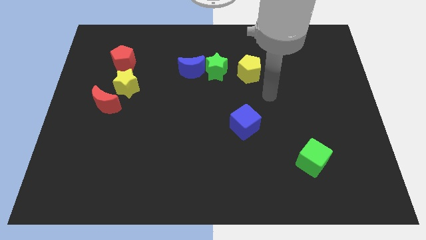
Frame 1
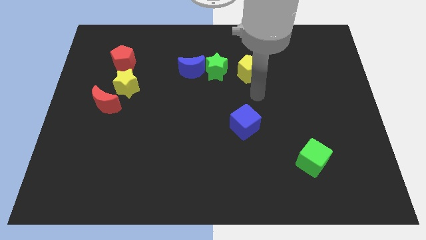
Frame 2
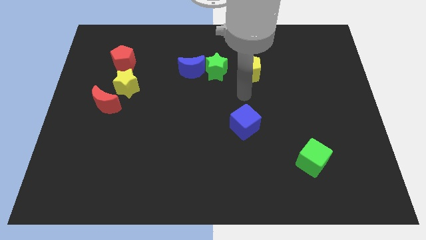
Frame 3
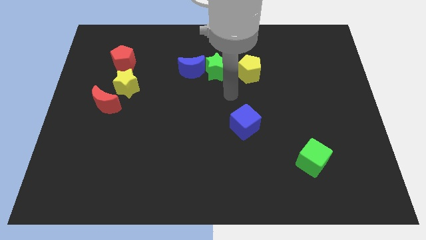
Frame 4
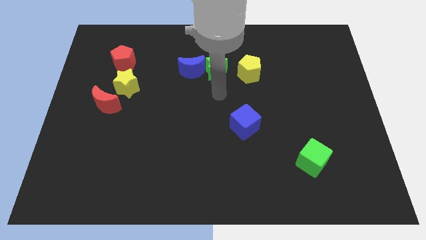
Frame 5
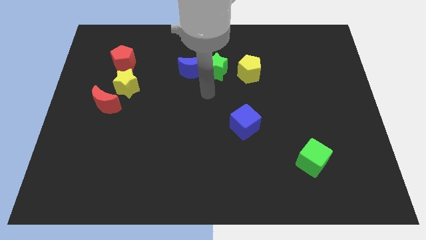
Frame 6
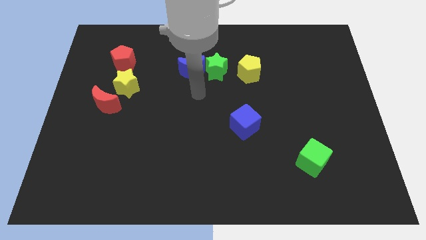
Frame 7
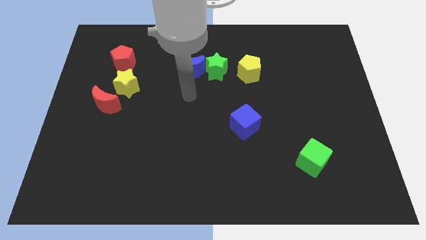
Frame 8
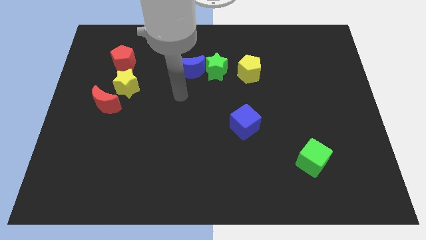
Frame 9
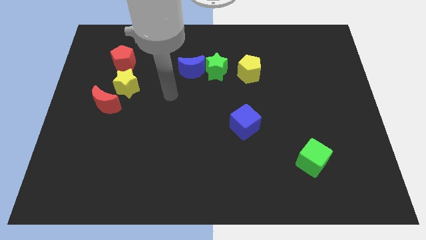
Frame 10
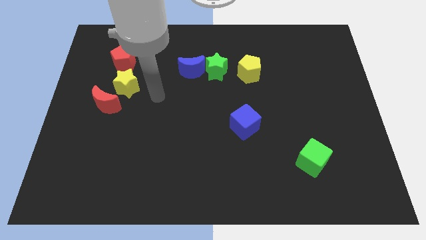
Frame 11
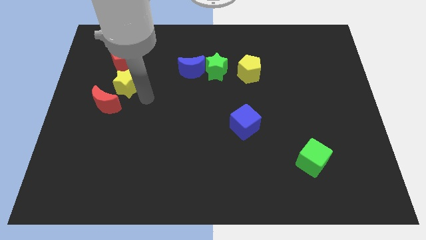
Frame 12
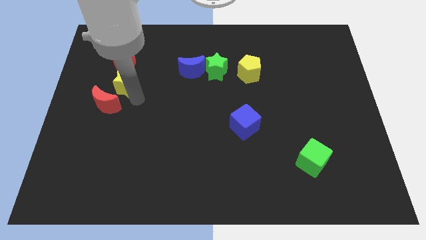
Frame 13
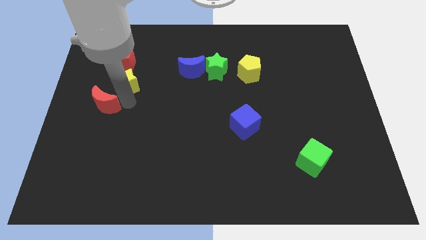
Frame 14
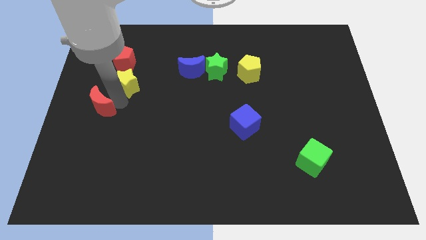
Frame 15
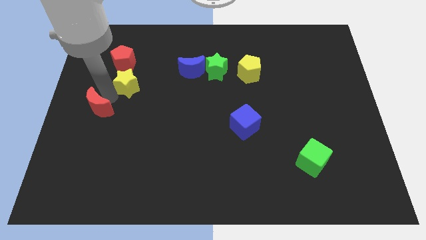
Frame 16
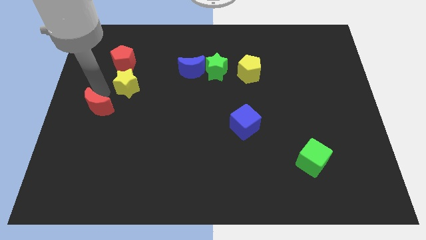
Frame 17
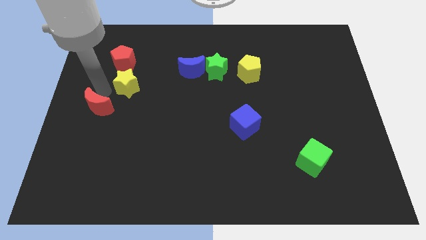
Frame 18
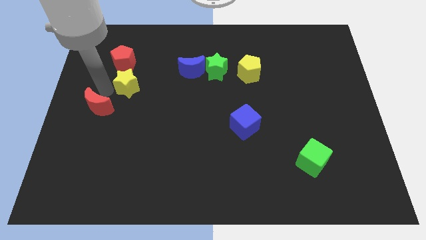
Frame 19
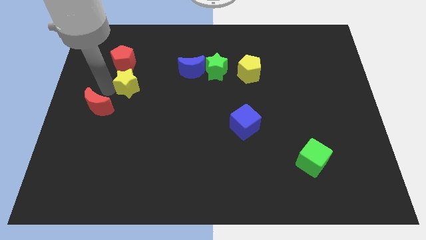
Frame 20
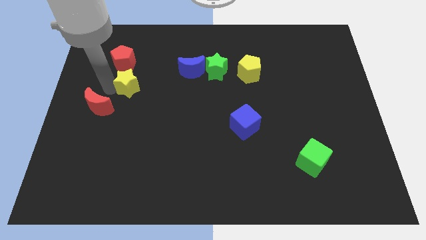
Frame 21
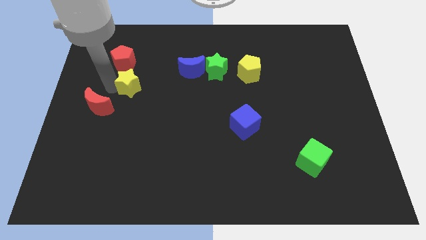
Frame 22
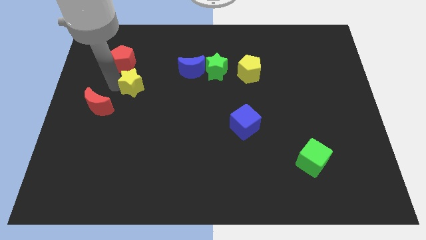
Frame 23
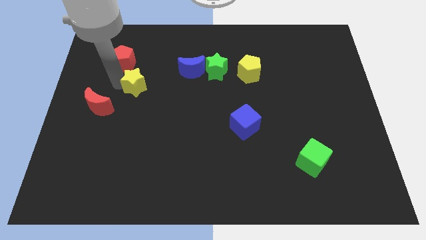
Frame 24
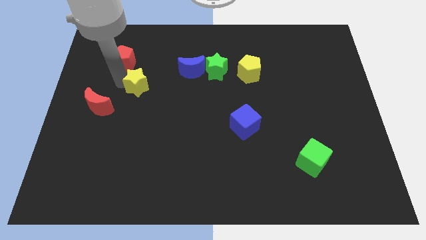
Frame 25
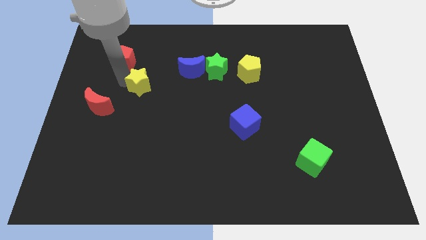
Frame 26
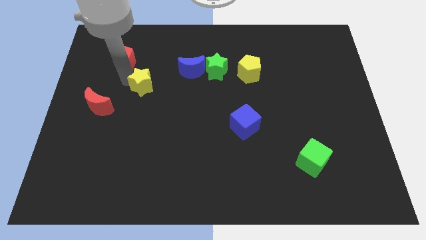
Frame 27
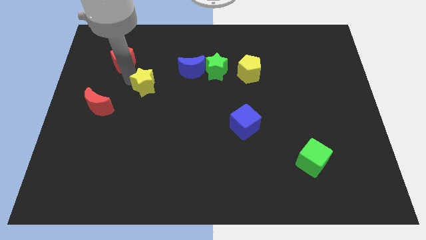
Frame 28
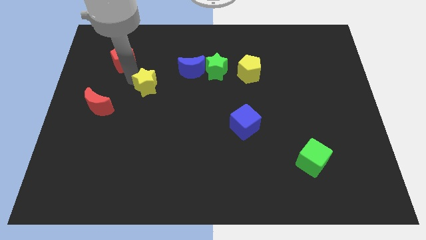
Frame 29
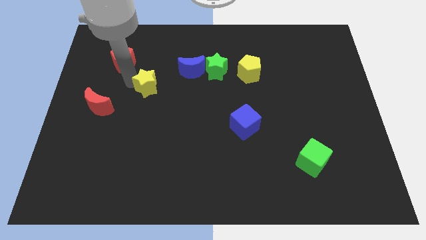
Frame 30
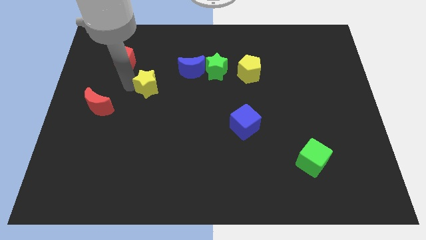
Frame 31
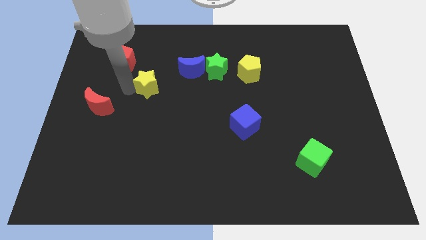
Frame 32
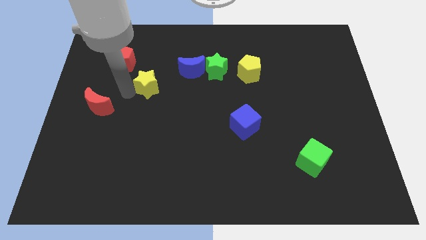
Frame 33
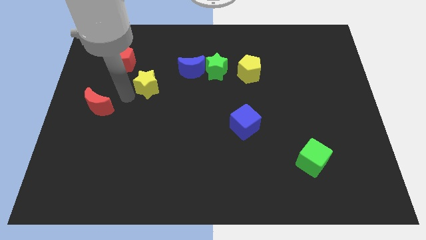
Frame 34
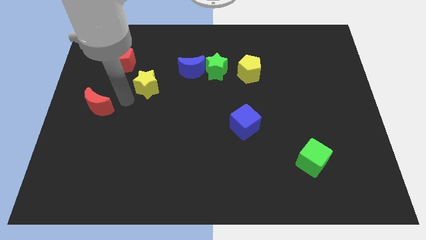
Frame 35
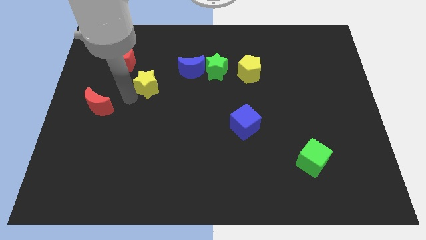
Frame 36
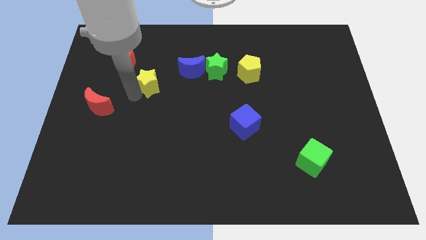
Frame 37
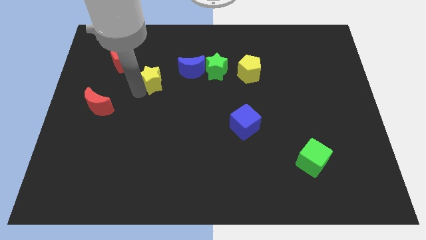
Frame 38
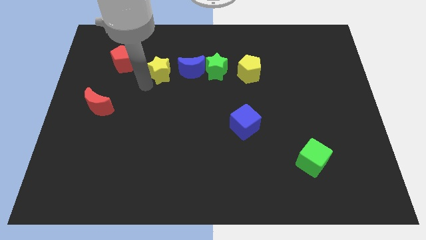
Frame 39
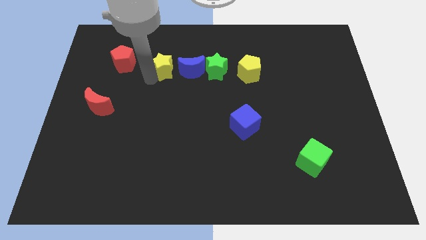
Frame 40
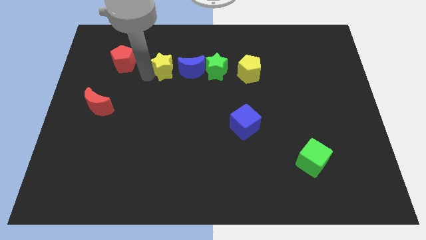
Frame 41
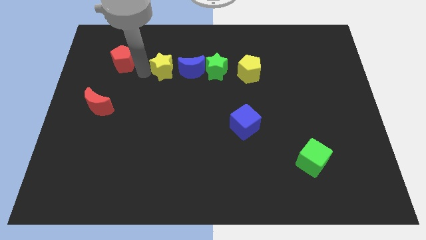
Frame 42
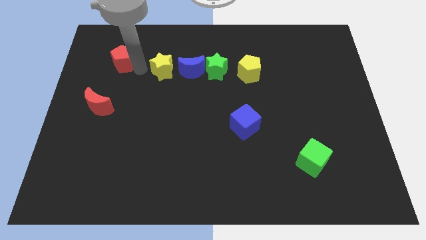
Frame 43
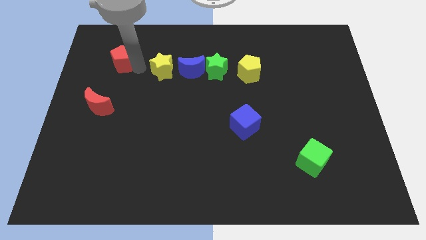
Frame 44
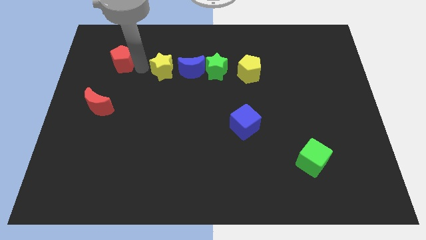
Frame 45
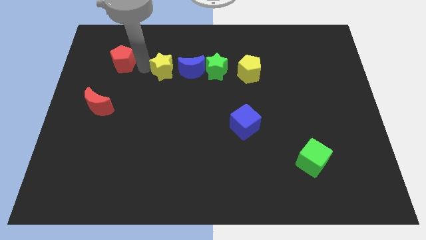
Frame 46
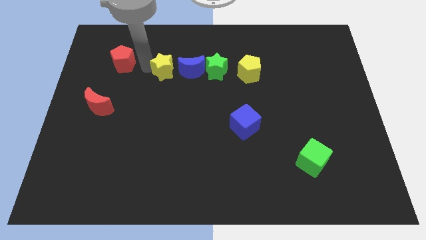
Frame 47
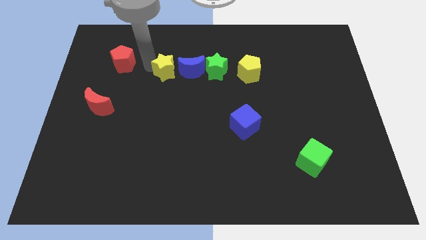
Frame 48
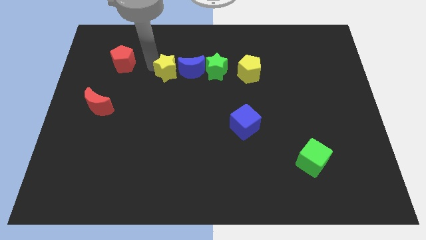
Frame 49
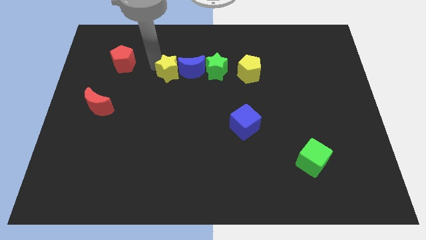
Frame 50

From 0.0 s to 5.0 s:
slide the yellow star next to the blue moon

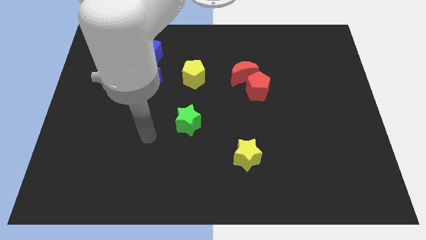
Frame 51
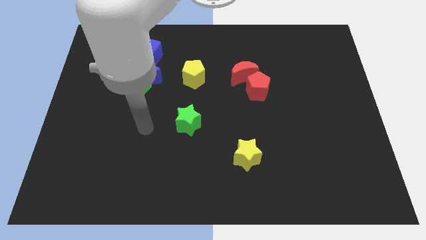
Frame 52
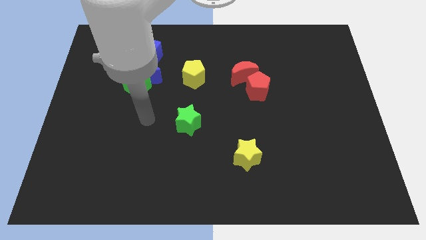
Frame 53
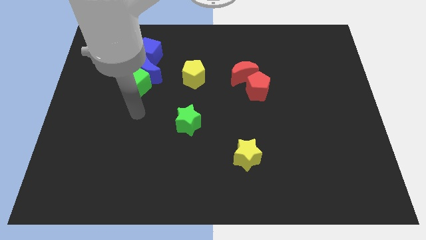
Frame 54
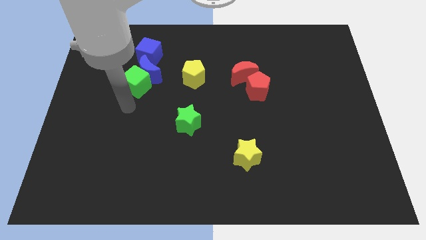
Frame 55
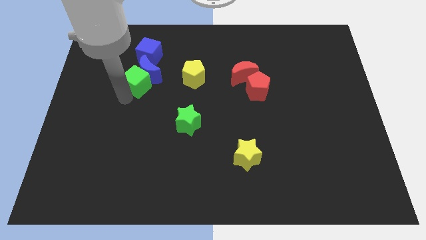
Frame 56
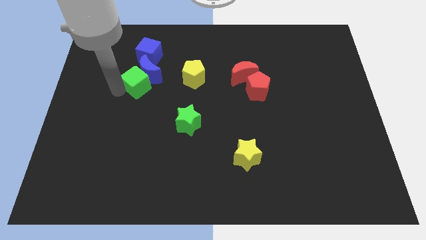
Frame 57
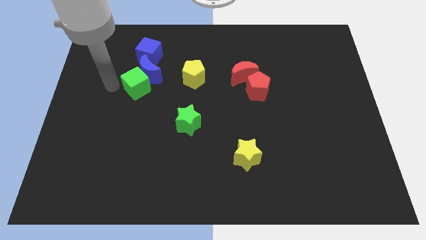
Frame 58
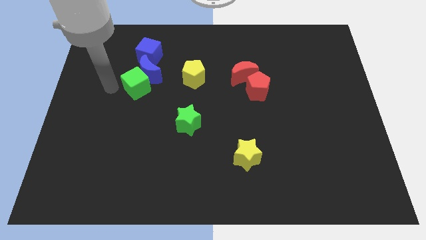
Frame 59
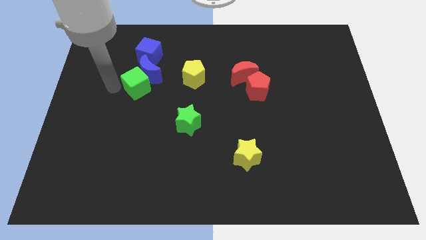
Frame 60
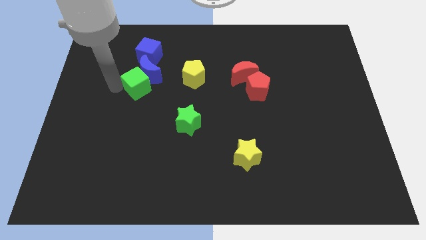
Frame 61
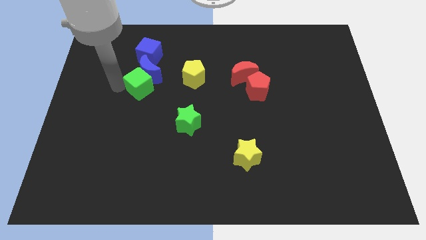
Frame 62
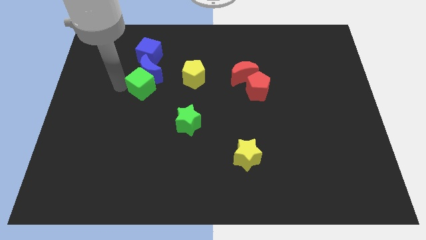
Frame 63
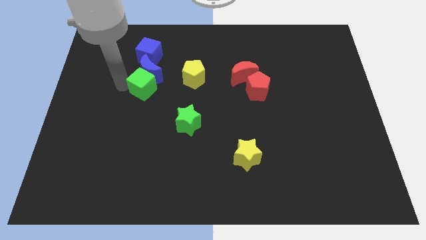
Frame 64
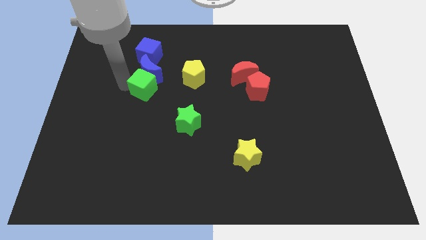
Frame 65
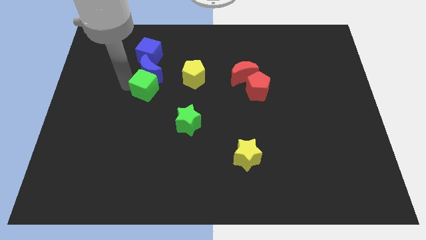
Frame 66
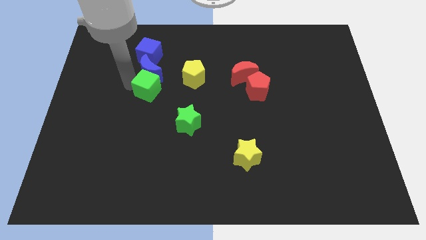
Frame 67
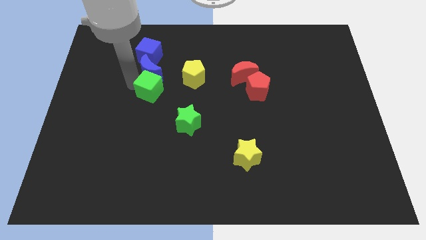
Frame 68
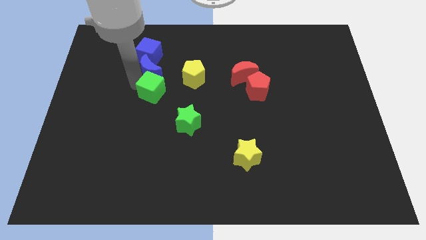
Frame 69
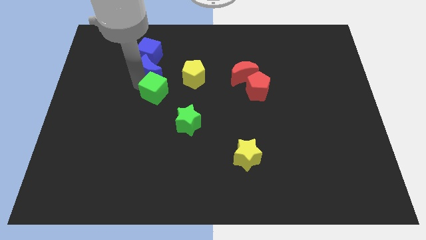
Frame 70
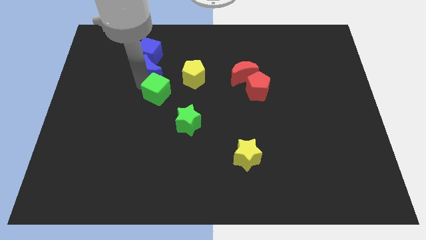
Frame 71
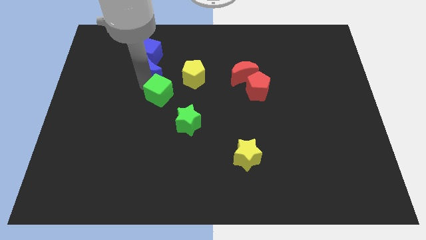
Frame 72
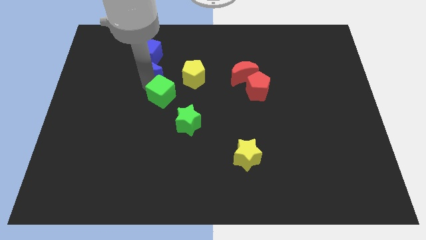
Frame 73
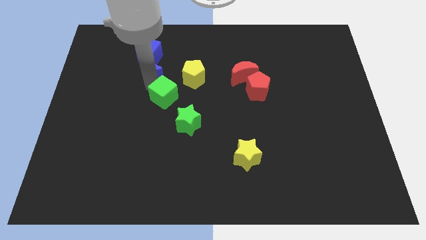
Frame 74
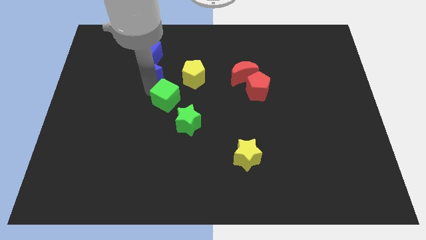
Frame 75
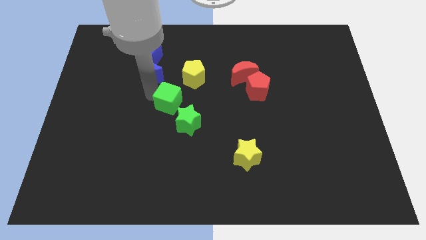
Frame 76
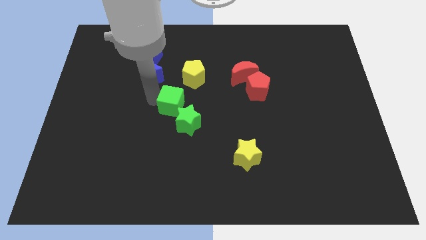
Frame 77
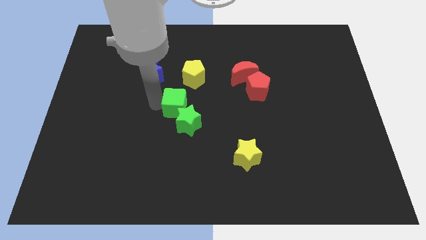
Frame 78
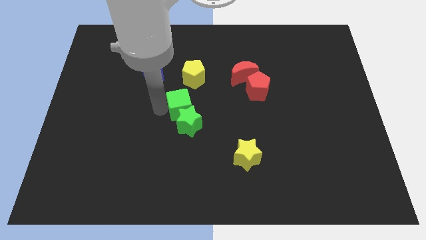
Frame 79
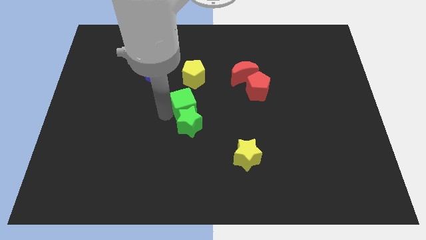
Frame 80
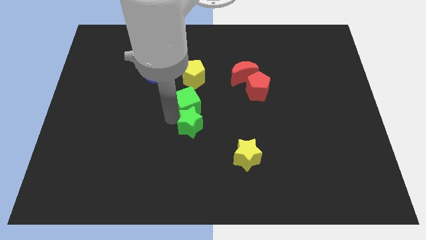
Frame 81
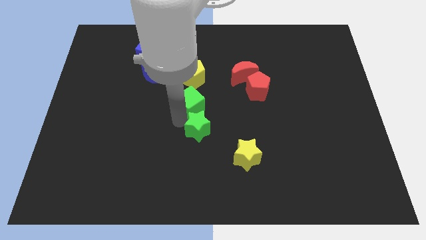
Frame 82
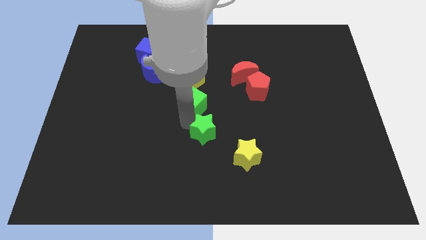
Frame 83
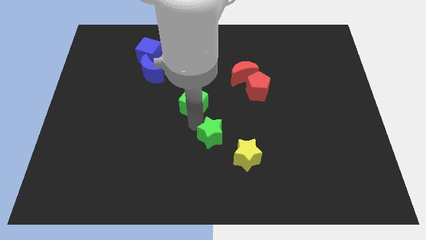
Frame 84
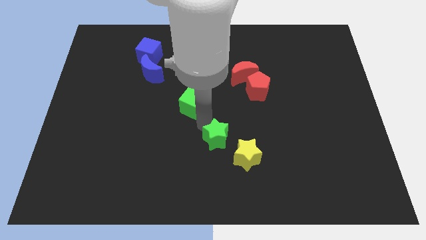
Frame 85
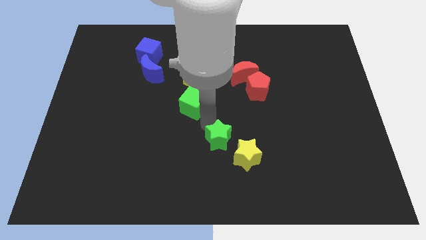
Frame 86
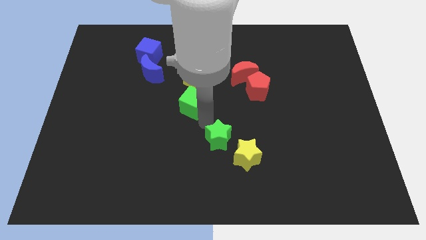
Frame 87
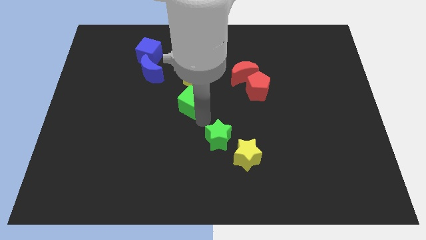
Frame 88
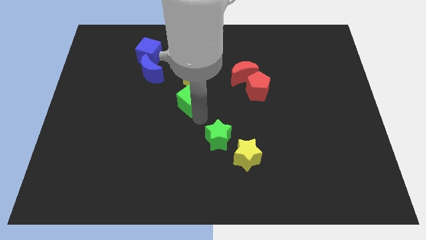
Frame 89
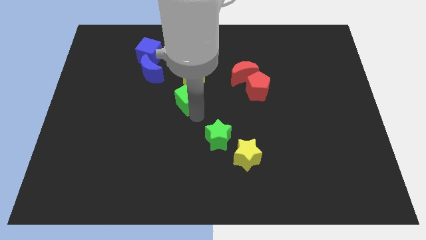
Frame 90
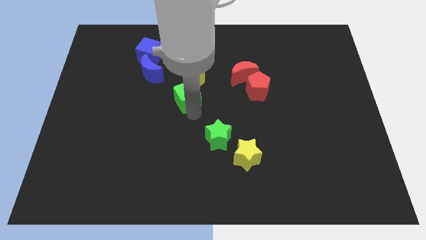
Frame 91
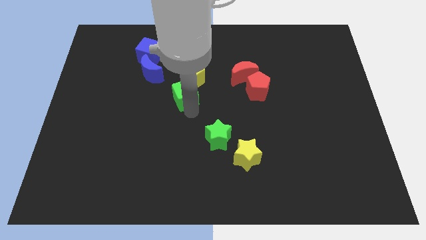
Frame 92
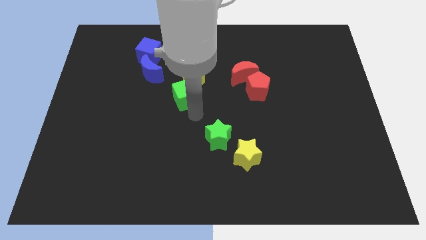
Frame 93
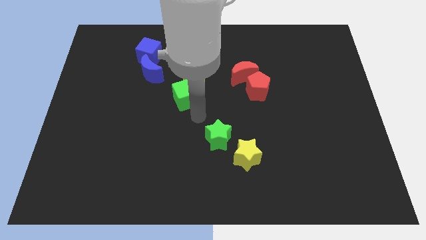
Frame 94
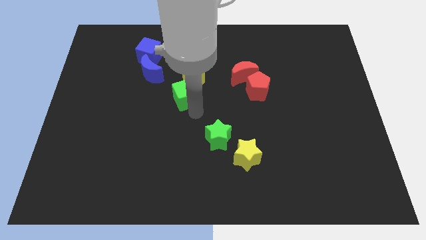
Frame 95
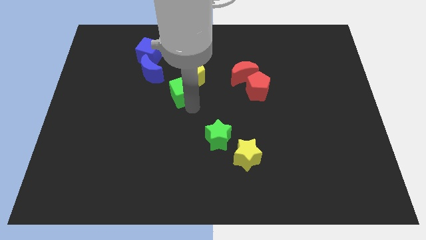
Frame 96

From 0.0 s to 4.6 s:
move the green cube close to the yellow pentagon
